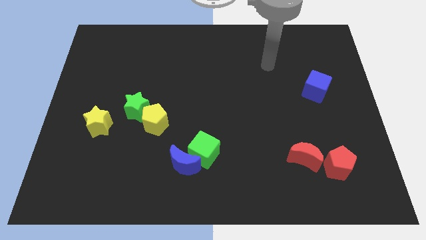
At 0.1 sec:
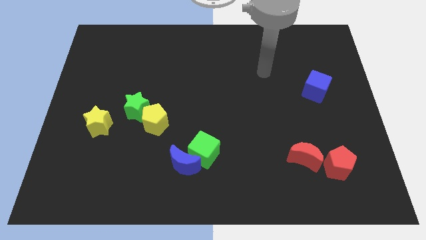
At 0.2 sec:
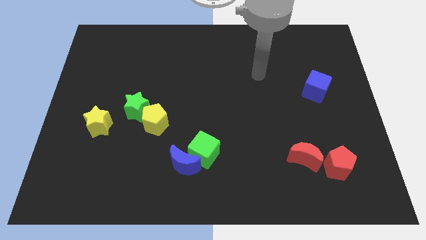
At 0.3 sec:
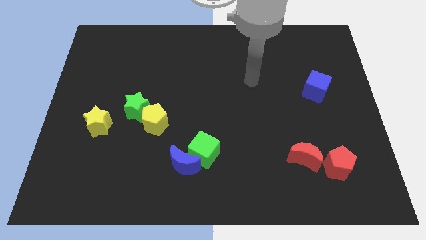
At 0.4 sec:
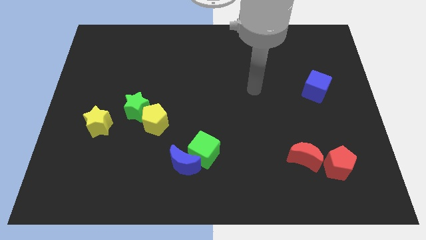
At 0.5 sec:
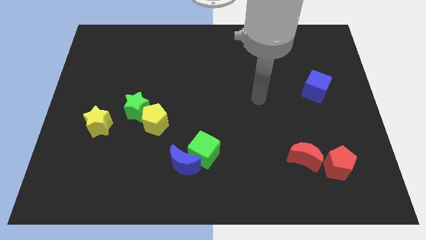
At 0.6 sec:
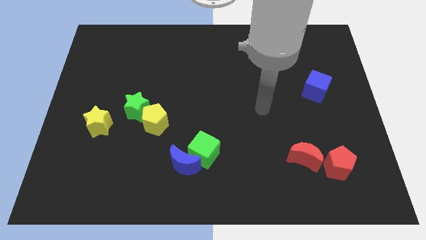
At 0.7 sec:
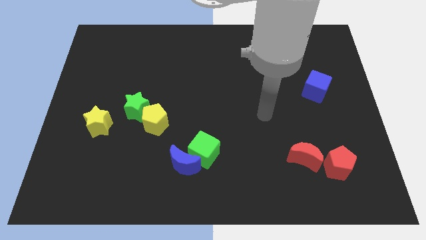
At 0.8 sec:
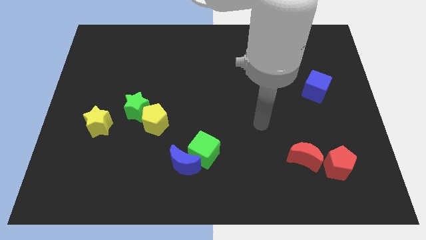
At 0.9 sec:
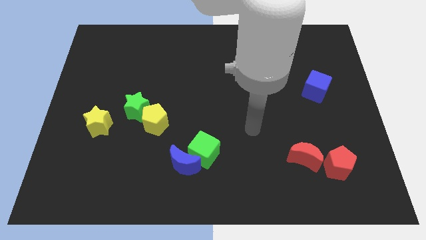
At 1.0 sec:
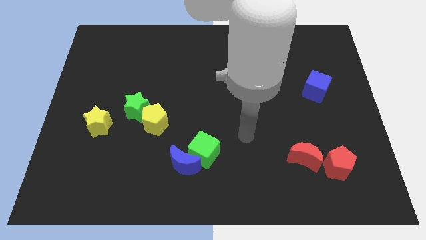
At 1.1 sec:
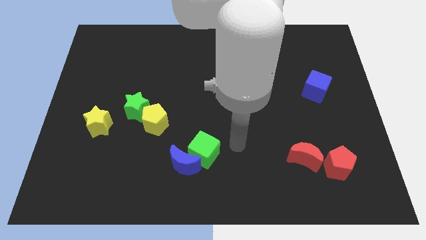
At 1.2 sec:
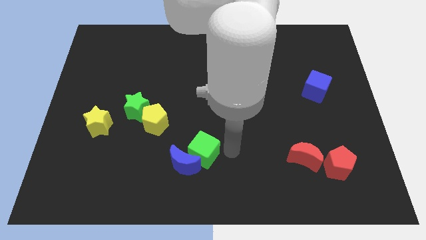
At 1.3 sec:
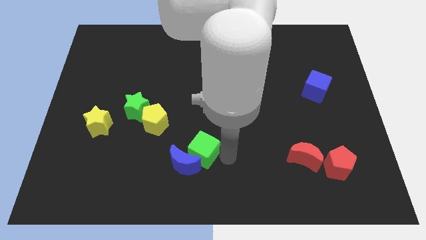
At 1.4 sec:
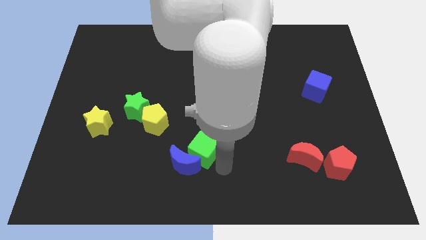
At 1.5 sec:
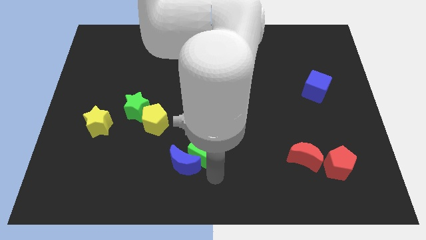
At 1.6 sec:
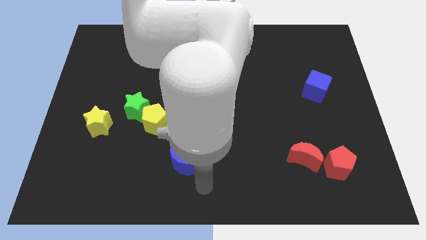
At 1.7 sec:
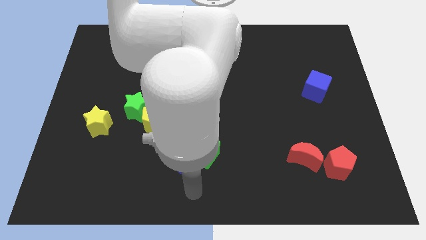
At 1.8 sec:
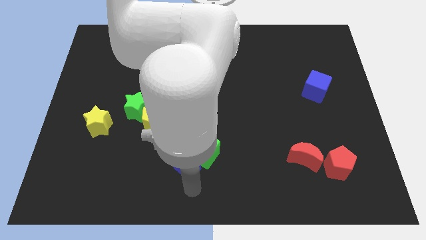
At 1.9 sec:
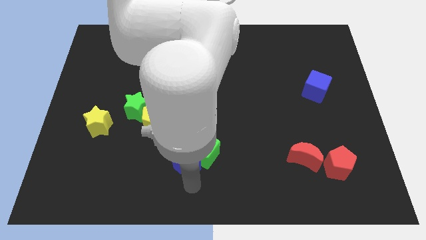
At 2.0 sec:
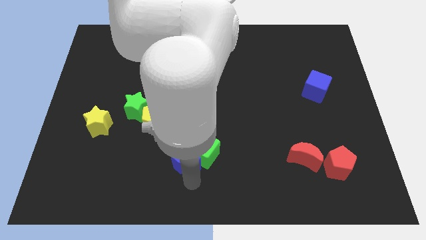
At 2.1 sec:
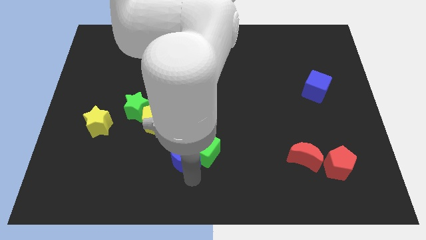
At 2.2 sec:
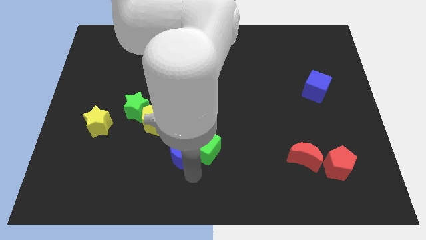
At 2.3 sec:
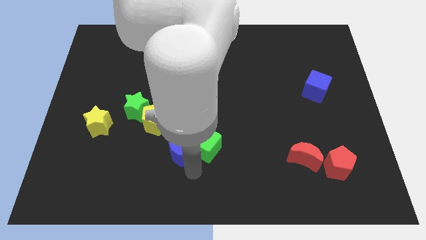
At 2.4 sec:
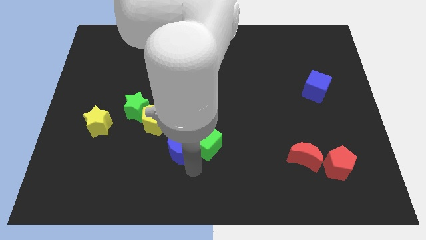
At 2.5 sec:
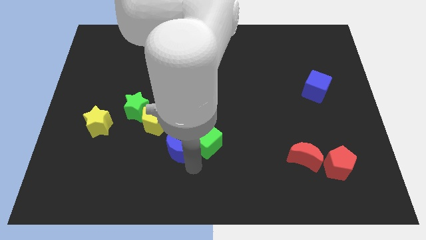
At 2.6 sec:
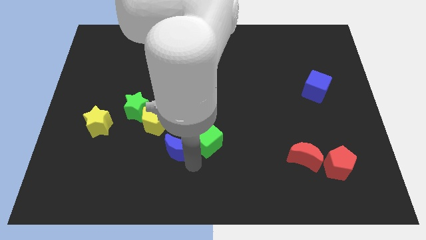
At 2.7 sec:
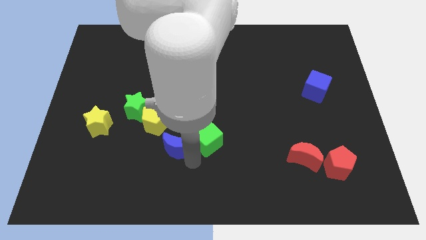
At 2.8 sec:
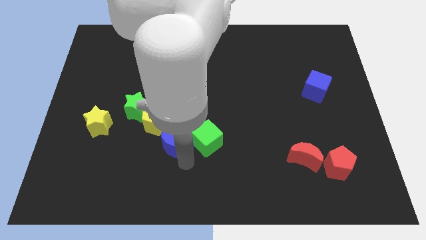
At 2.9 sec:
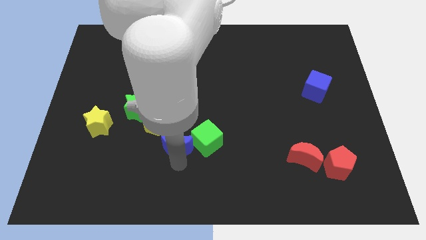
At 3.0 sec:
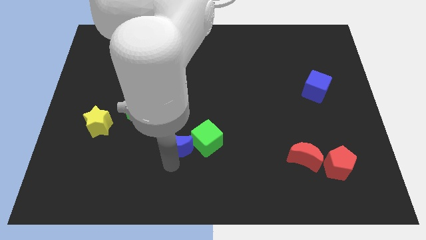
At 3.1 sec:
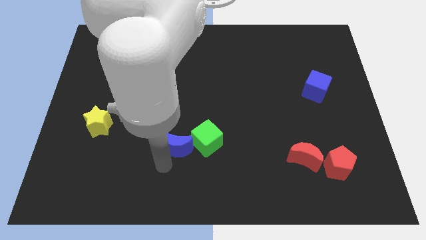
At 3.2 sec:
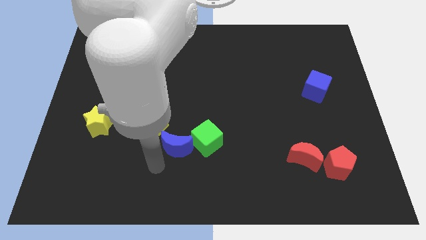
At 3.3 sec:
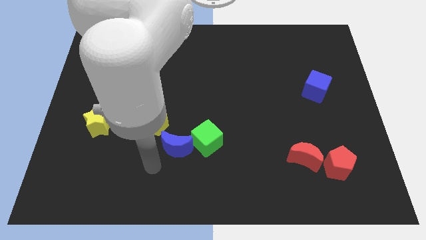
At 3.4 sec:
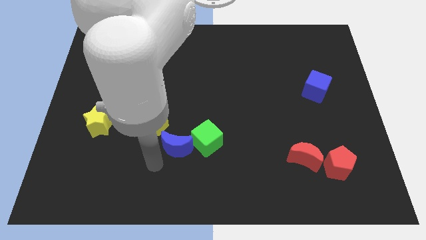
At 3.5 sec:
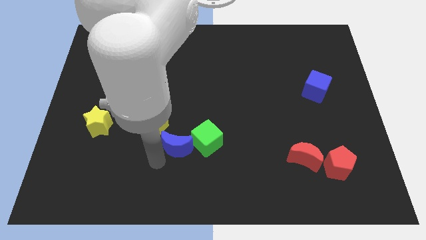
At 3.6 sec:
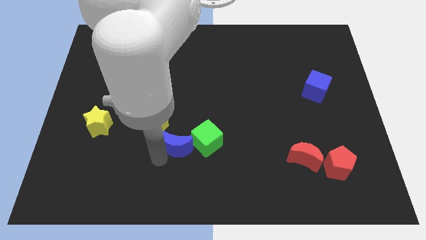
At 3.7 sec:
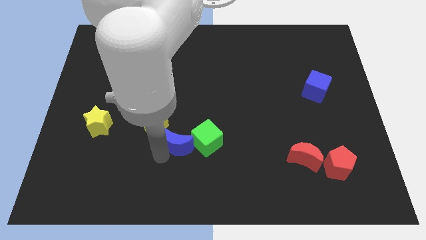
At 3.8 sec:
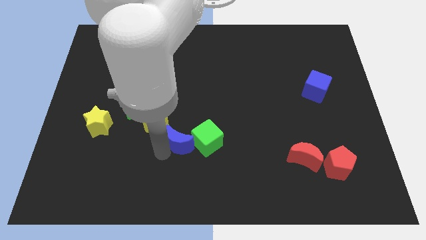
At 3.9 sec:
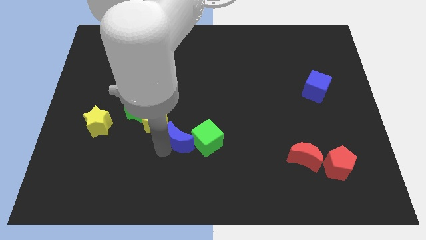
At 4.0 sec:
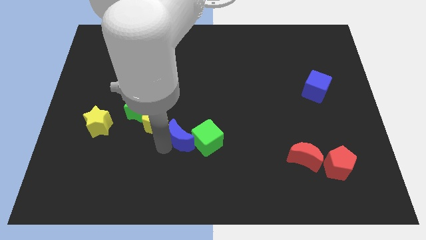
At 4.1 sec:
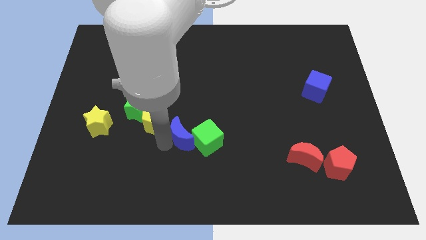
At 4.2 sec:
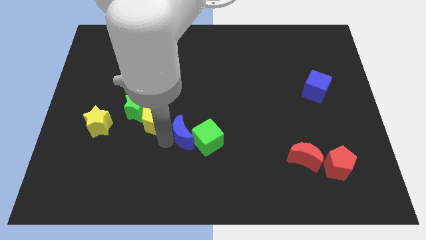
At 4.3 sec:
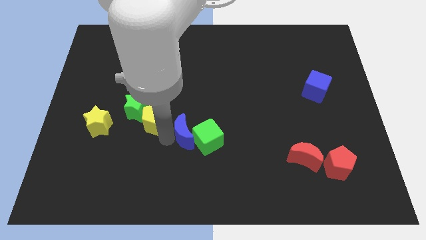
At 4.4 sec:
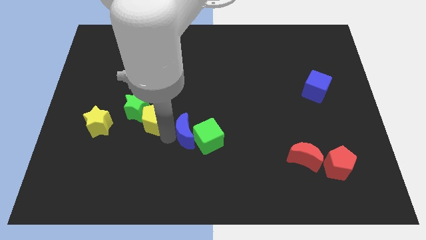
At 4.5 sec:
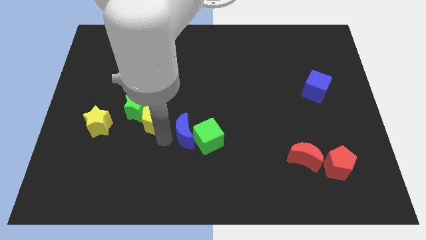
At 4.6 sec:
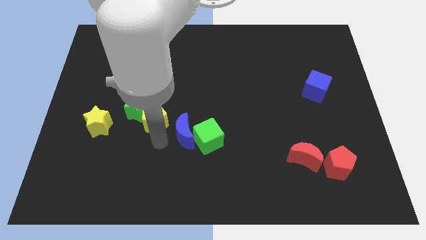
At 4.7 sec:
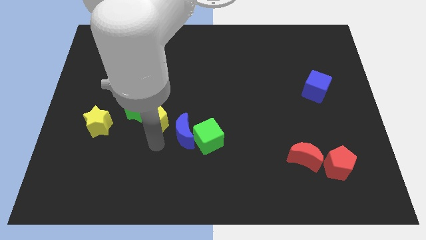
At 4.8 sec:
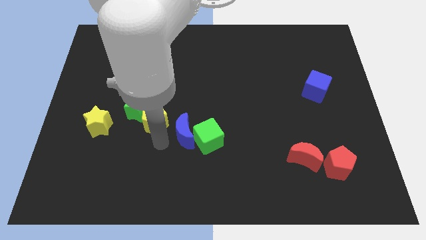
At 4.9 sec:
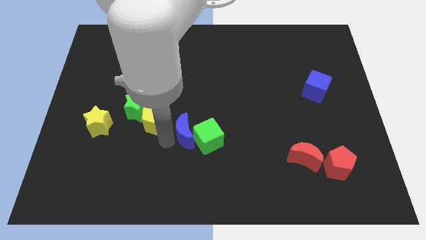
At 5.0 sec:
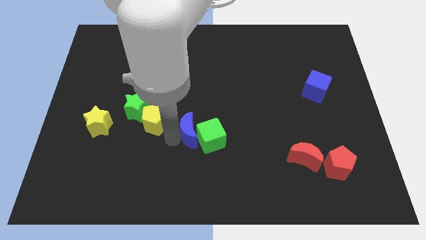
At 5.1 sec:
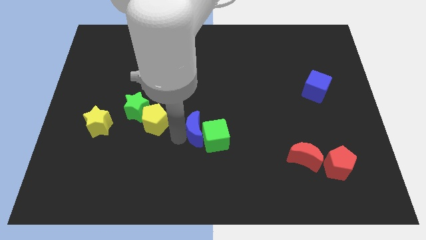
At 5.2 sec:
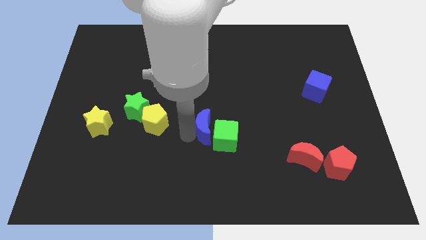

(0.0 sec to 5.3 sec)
slightly push the blue moon diagonally upwards and right

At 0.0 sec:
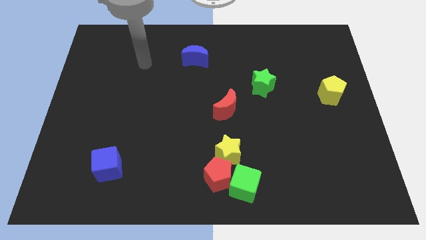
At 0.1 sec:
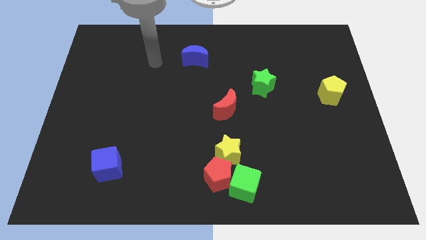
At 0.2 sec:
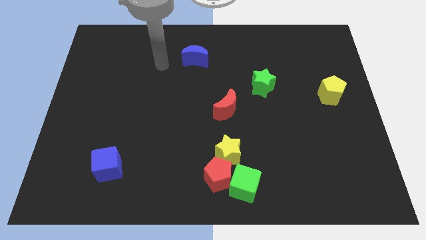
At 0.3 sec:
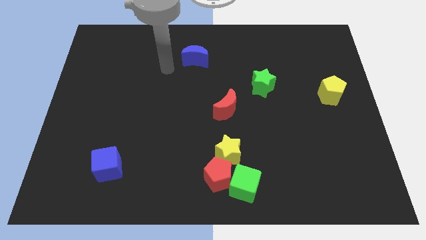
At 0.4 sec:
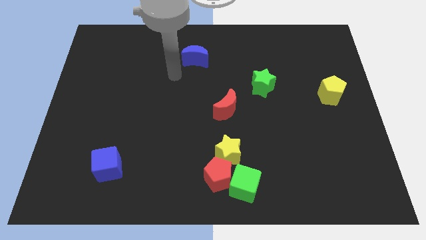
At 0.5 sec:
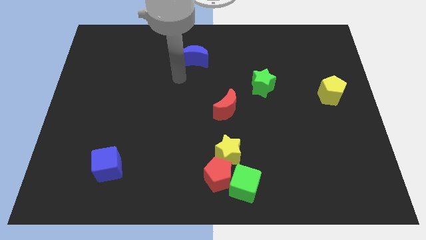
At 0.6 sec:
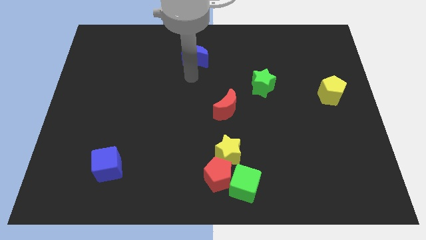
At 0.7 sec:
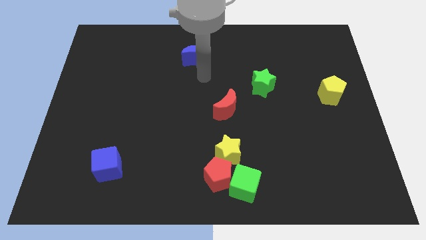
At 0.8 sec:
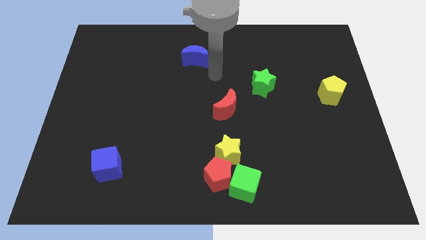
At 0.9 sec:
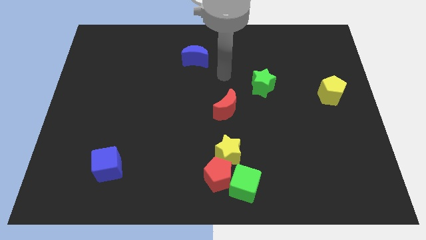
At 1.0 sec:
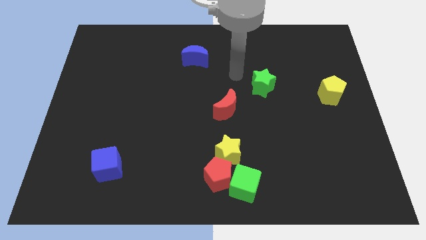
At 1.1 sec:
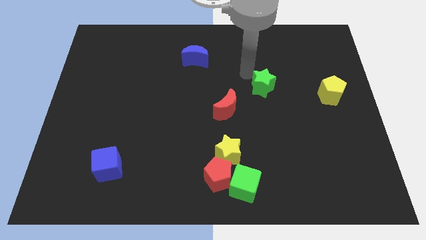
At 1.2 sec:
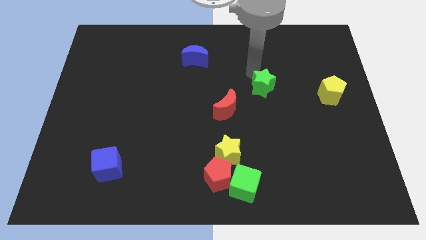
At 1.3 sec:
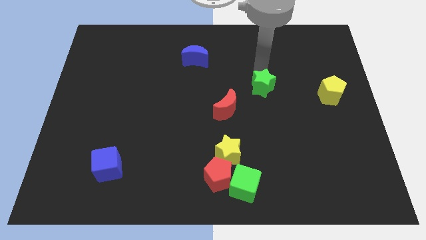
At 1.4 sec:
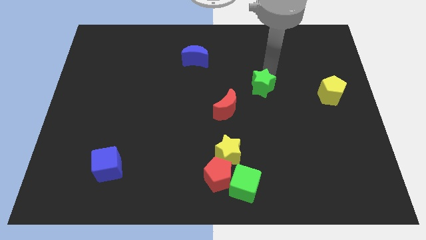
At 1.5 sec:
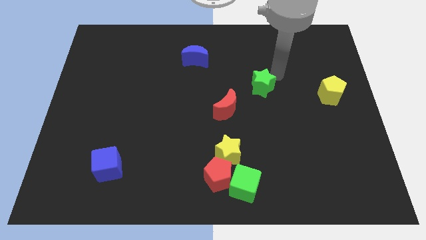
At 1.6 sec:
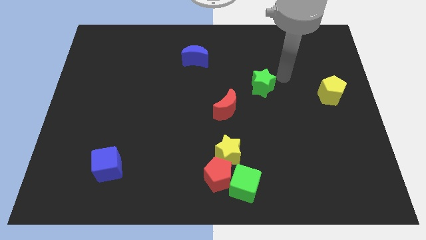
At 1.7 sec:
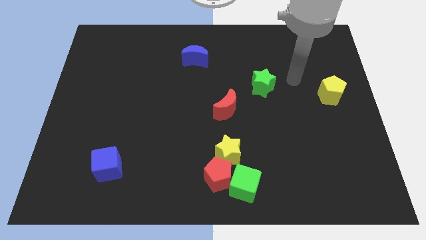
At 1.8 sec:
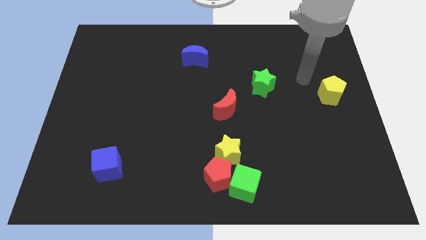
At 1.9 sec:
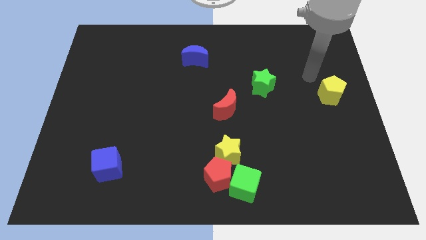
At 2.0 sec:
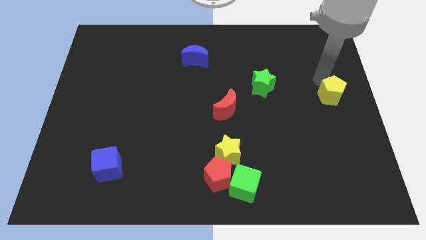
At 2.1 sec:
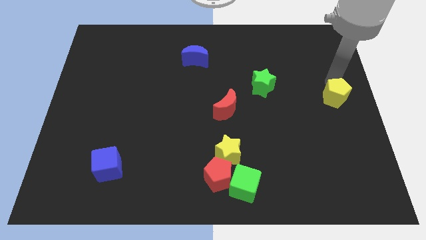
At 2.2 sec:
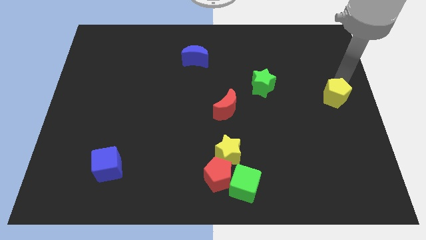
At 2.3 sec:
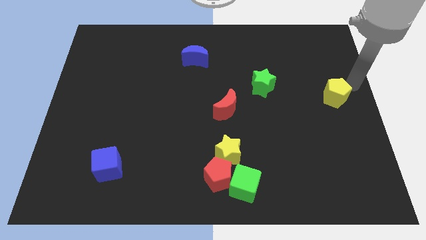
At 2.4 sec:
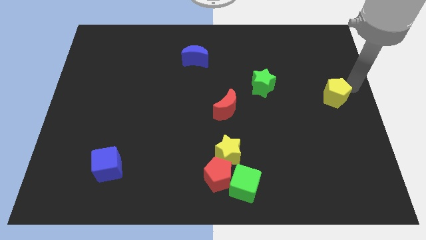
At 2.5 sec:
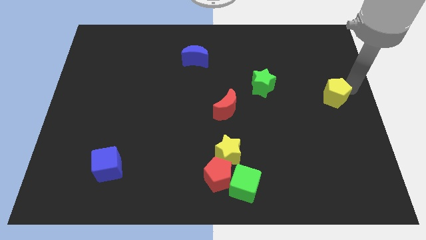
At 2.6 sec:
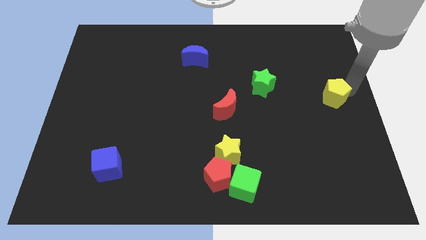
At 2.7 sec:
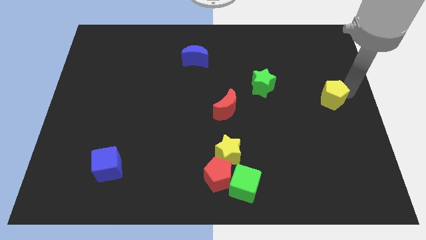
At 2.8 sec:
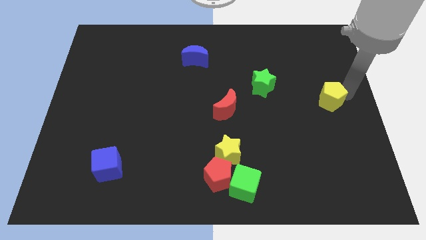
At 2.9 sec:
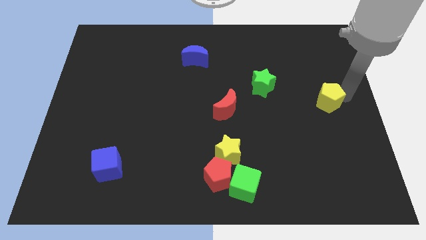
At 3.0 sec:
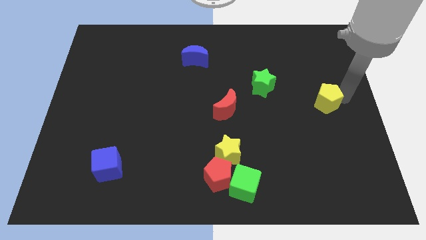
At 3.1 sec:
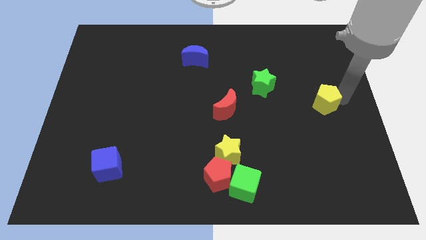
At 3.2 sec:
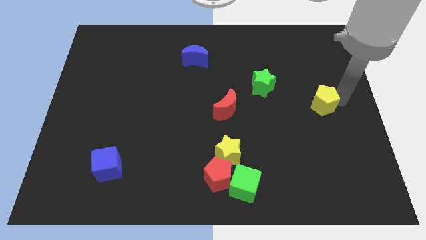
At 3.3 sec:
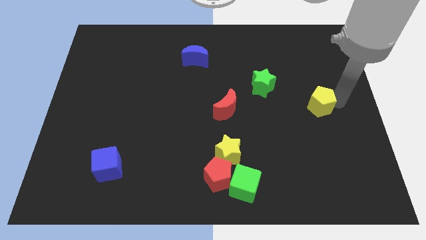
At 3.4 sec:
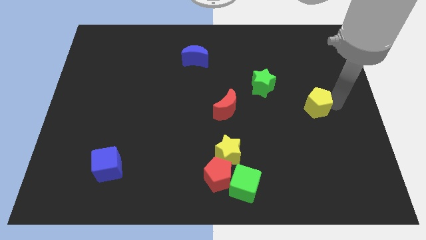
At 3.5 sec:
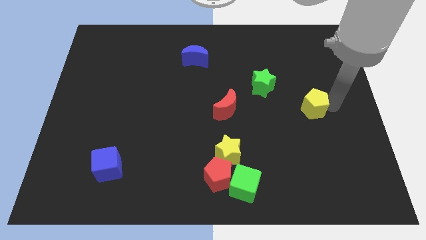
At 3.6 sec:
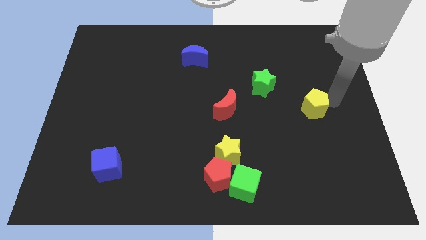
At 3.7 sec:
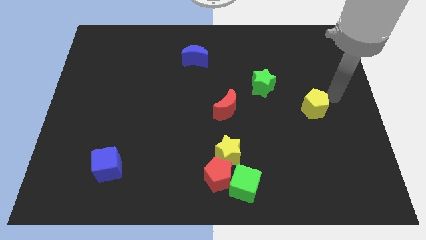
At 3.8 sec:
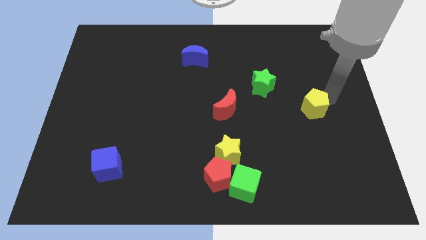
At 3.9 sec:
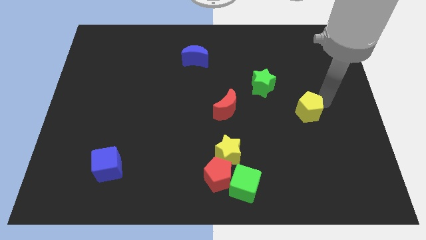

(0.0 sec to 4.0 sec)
push the yellow pentagon a little bit downwards and to the left diagonally
